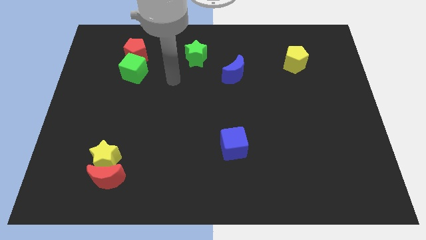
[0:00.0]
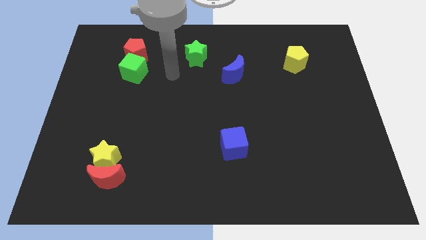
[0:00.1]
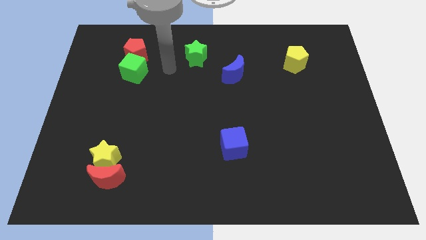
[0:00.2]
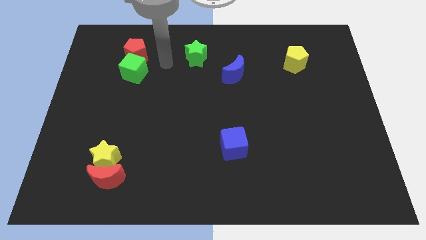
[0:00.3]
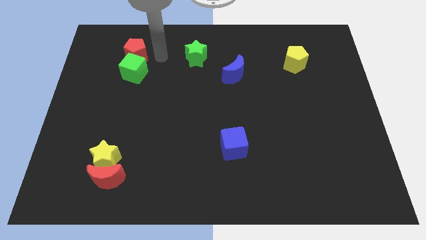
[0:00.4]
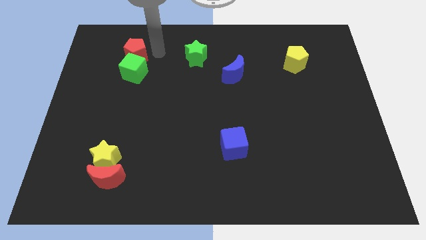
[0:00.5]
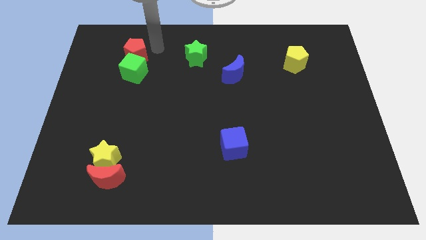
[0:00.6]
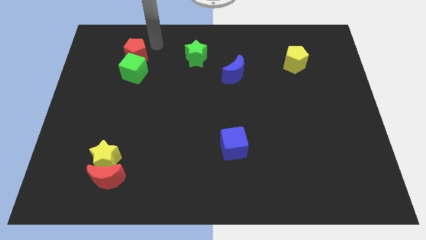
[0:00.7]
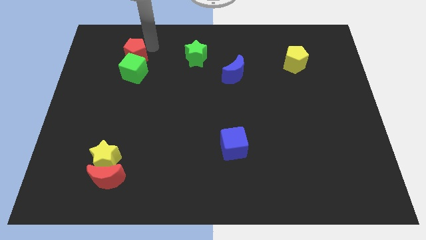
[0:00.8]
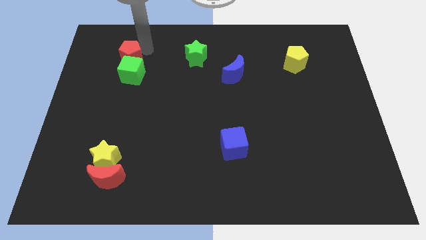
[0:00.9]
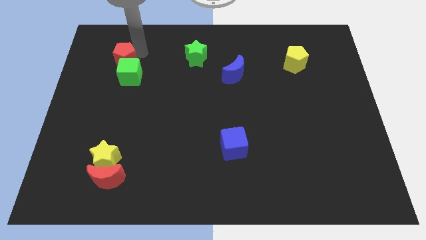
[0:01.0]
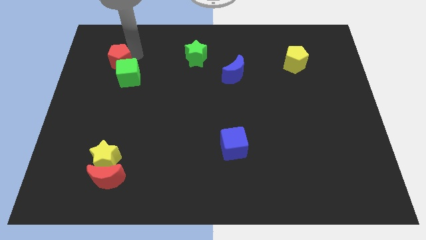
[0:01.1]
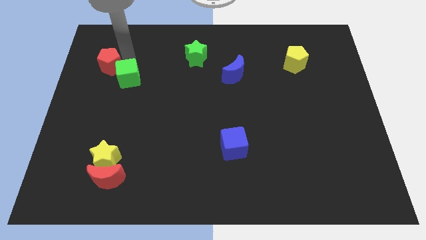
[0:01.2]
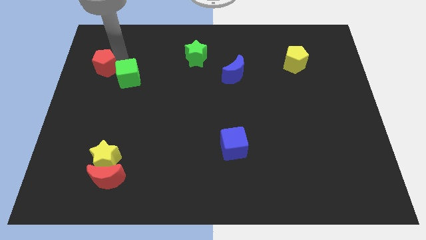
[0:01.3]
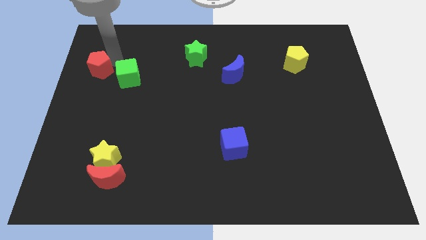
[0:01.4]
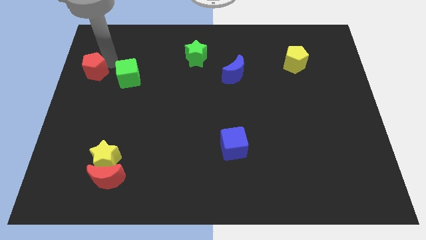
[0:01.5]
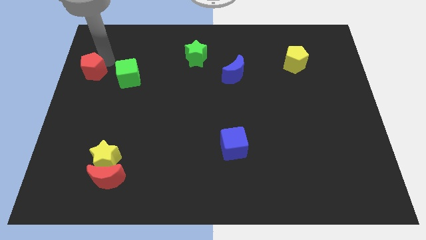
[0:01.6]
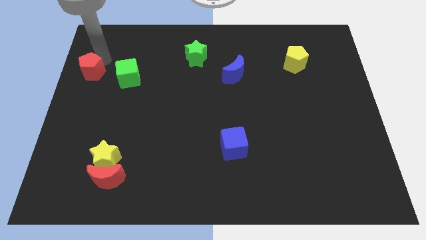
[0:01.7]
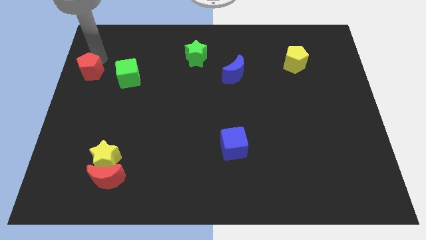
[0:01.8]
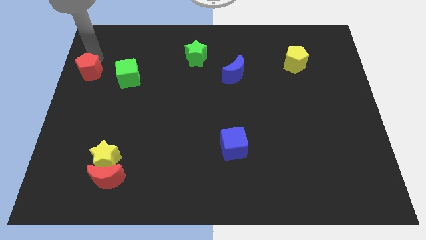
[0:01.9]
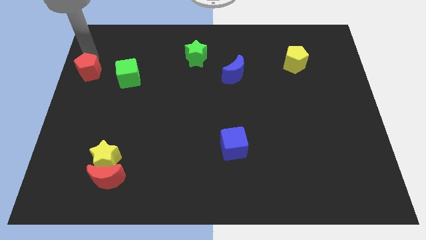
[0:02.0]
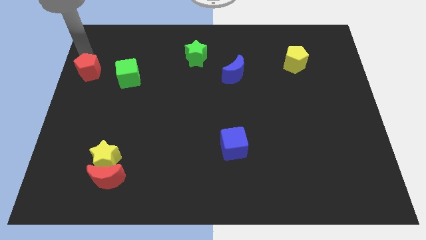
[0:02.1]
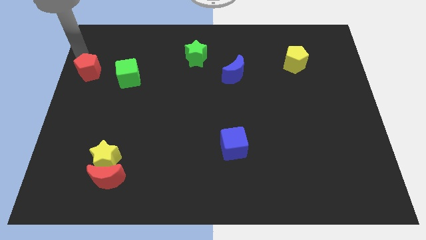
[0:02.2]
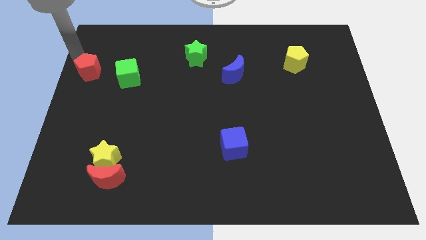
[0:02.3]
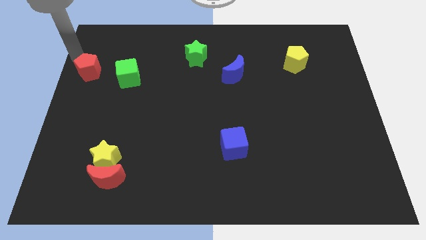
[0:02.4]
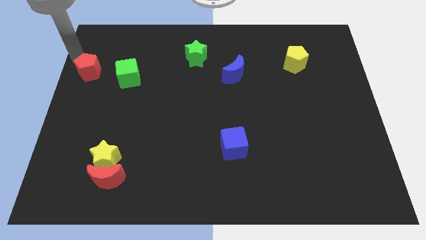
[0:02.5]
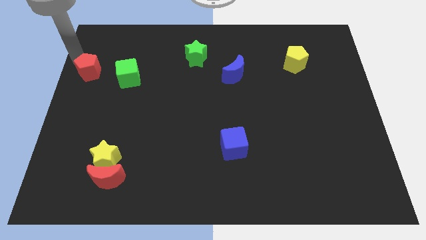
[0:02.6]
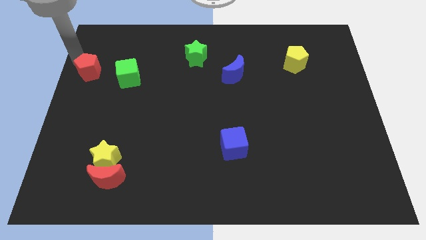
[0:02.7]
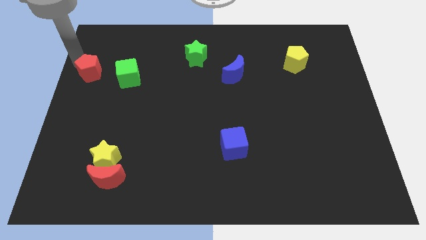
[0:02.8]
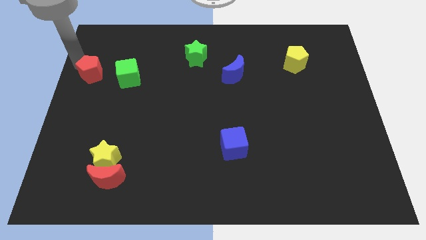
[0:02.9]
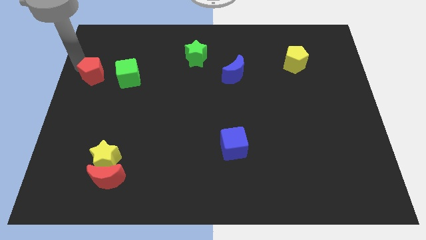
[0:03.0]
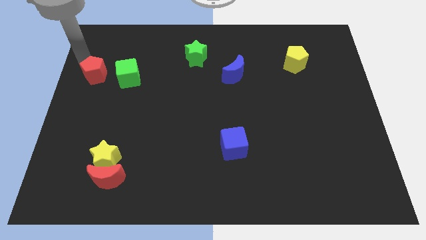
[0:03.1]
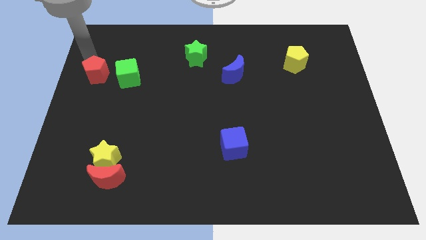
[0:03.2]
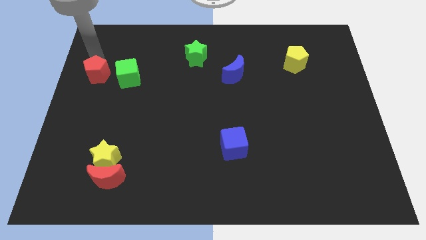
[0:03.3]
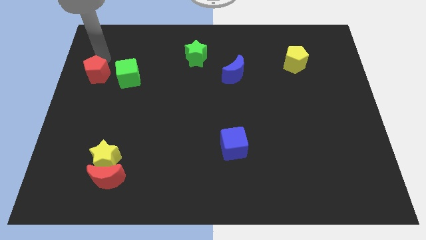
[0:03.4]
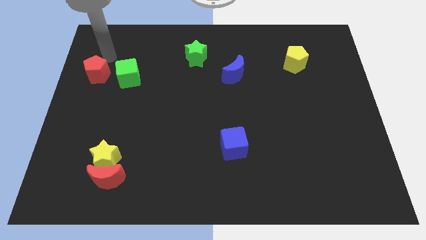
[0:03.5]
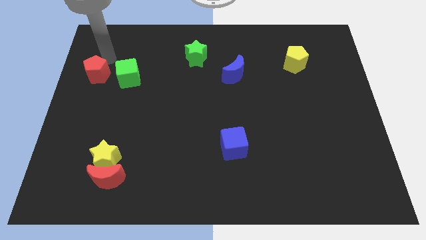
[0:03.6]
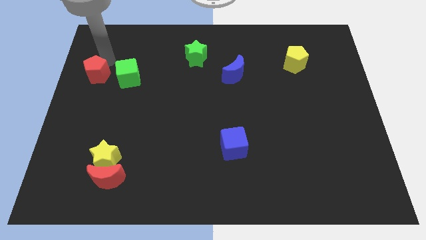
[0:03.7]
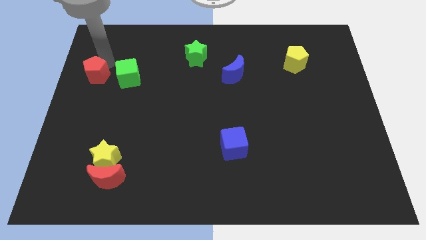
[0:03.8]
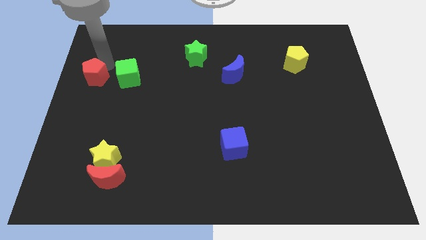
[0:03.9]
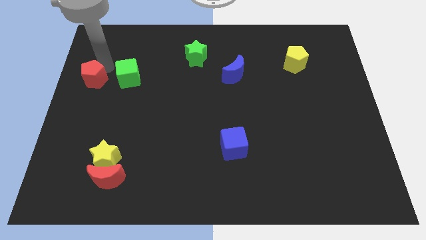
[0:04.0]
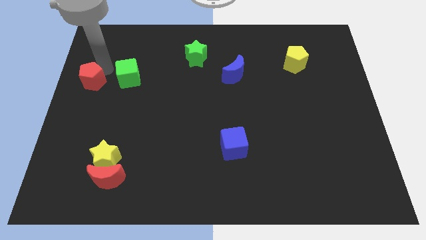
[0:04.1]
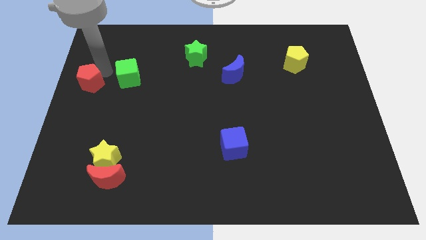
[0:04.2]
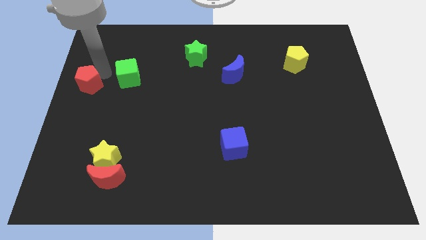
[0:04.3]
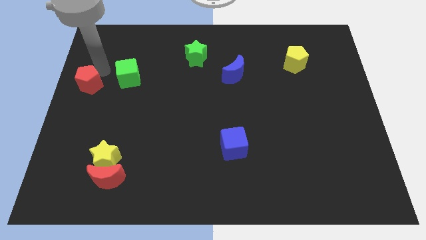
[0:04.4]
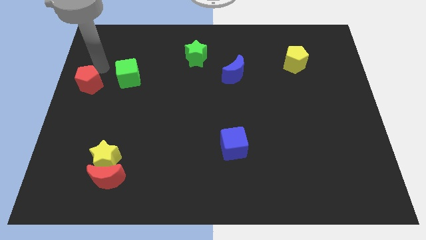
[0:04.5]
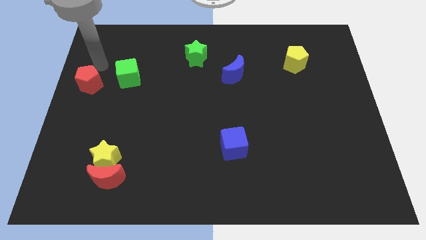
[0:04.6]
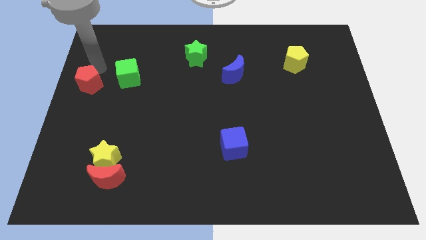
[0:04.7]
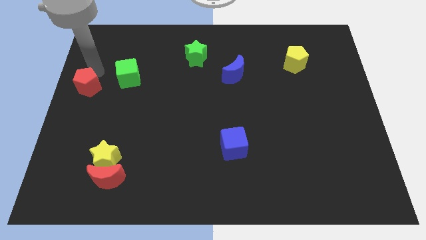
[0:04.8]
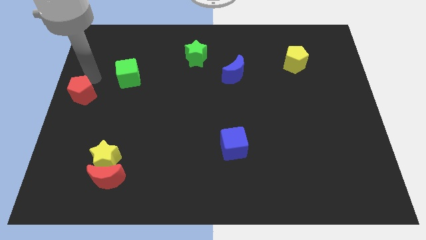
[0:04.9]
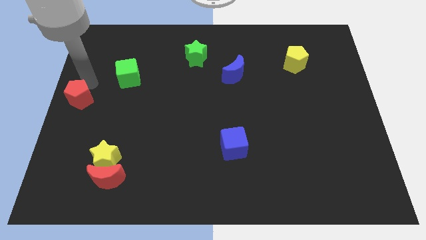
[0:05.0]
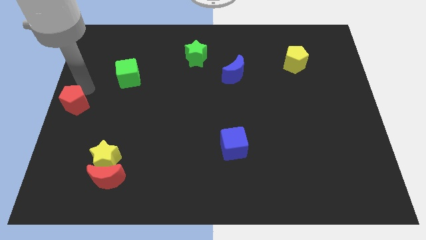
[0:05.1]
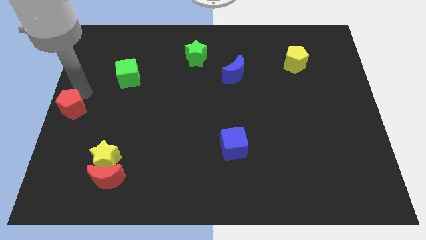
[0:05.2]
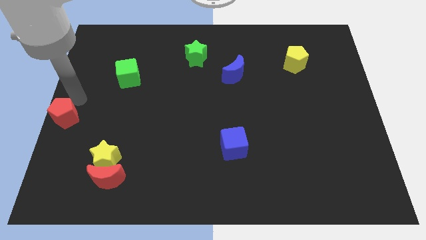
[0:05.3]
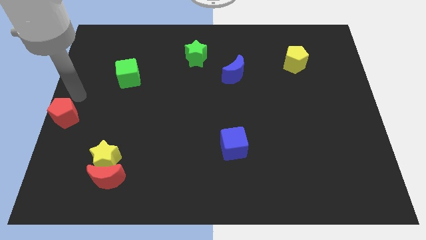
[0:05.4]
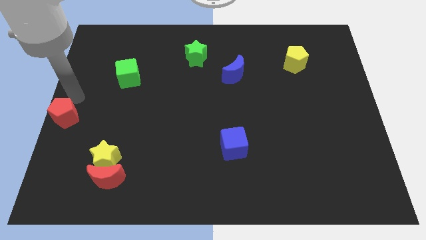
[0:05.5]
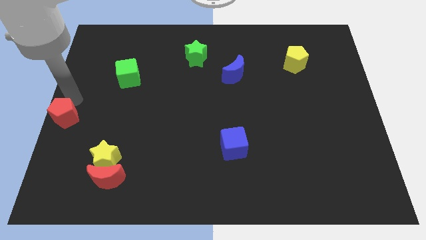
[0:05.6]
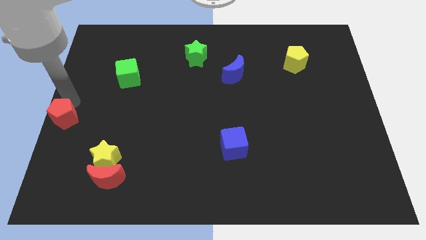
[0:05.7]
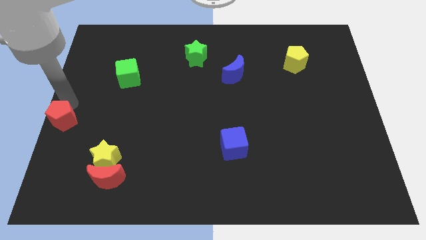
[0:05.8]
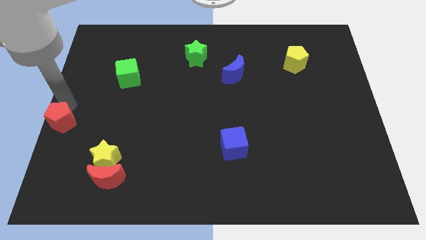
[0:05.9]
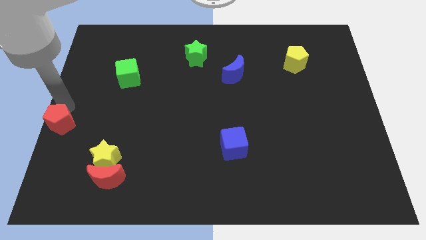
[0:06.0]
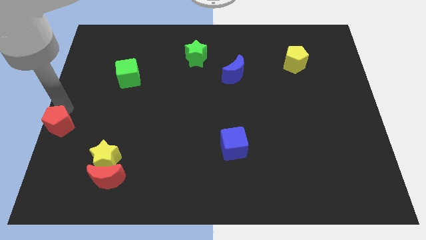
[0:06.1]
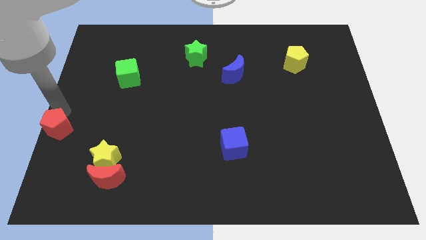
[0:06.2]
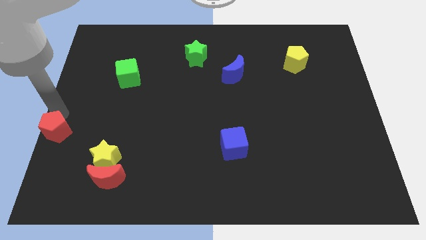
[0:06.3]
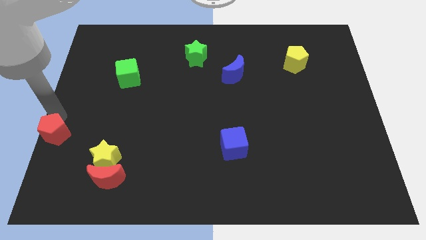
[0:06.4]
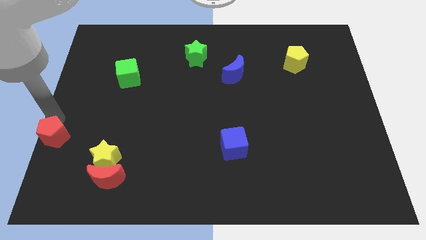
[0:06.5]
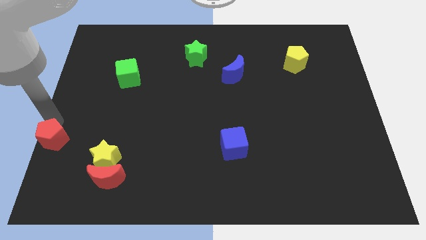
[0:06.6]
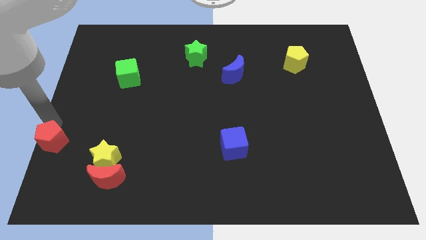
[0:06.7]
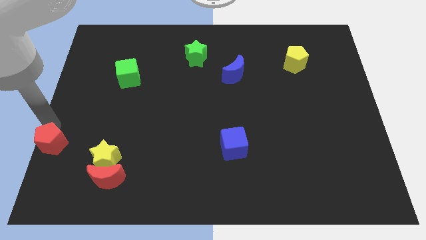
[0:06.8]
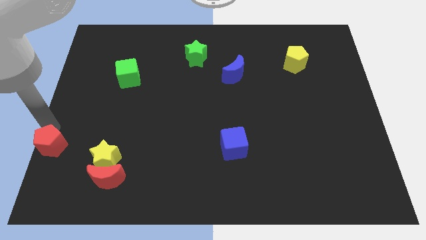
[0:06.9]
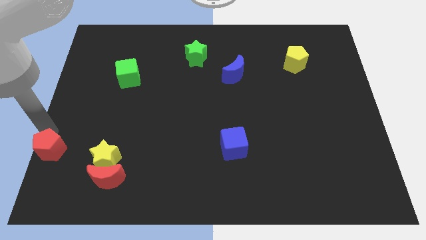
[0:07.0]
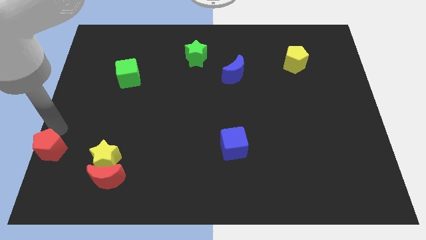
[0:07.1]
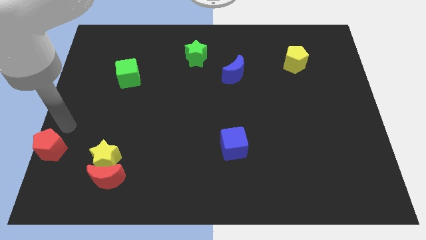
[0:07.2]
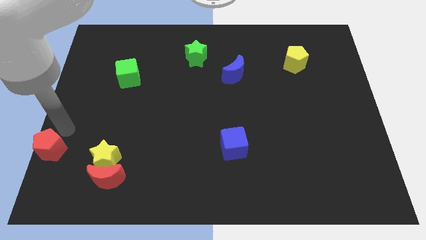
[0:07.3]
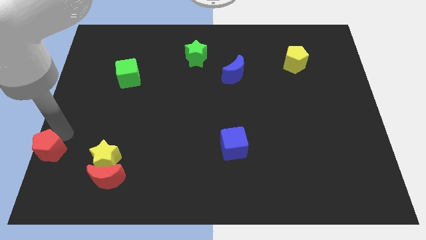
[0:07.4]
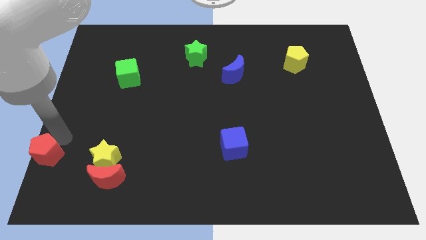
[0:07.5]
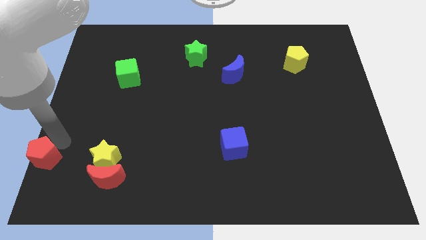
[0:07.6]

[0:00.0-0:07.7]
put the red pentagon to the bottom left corner
